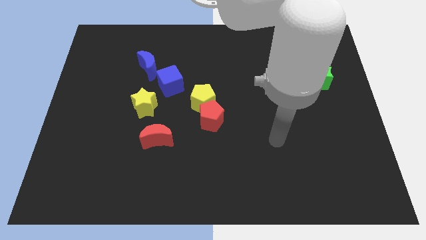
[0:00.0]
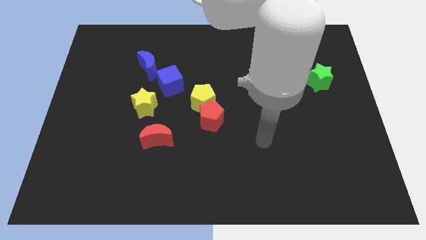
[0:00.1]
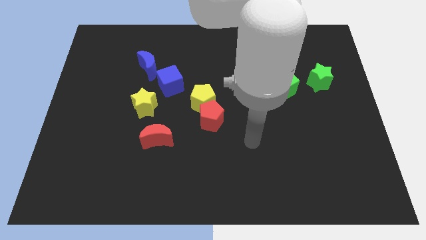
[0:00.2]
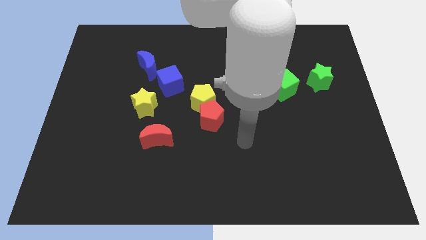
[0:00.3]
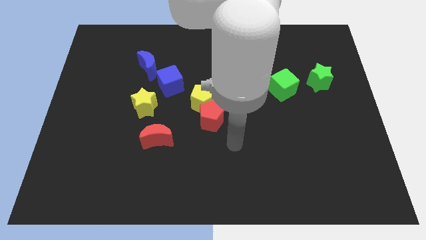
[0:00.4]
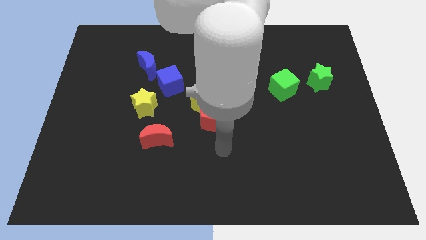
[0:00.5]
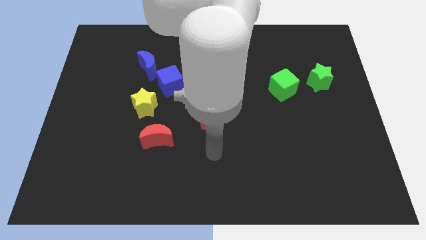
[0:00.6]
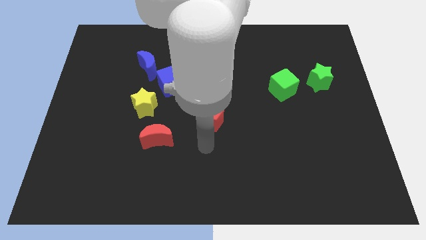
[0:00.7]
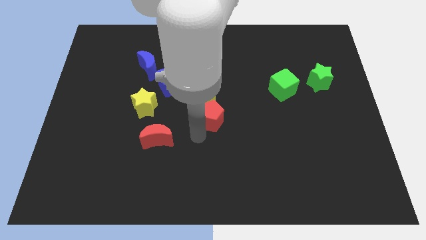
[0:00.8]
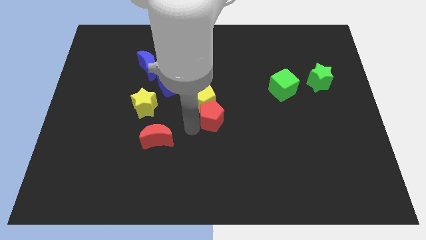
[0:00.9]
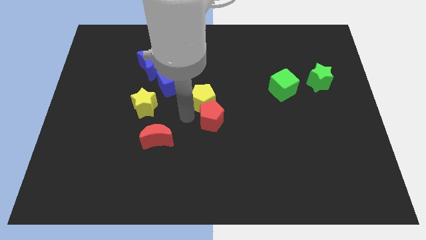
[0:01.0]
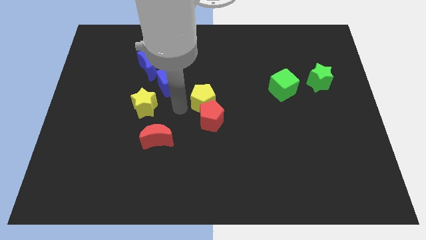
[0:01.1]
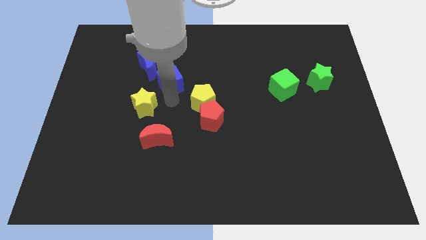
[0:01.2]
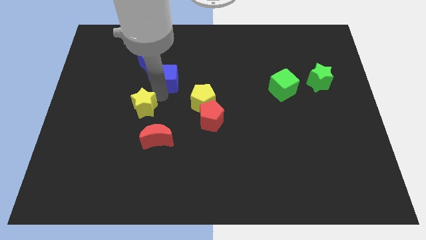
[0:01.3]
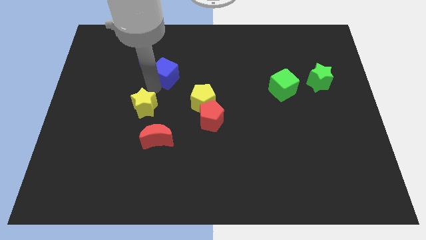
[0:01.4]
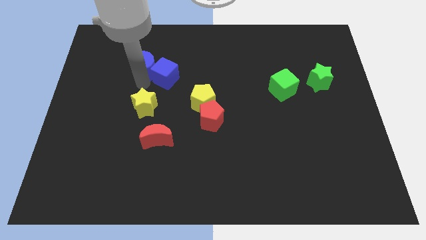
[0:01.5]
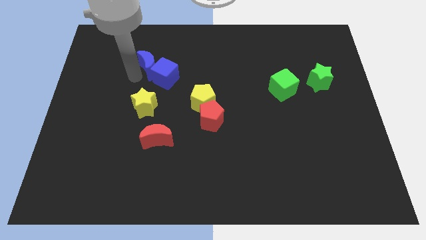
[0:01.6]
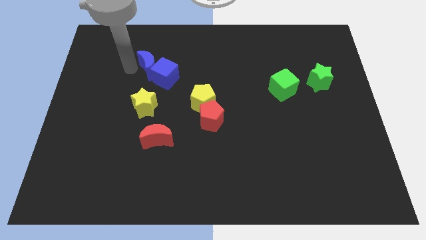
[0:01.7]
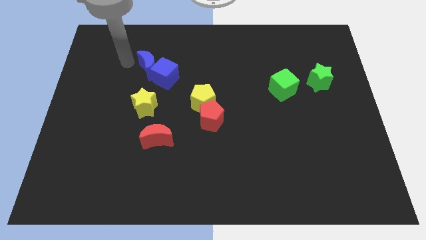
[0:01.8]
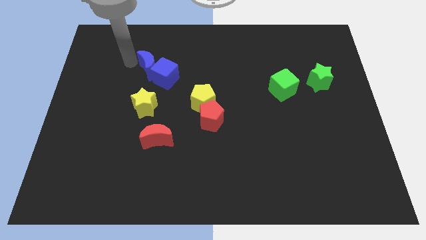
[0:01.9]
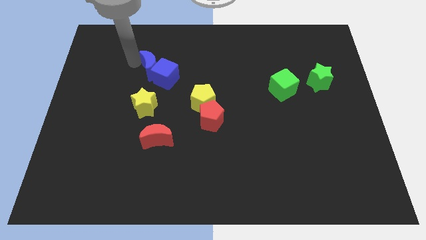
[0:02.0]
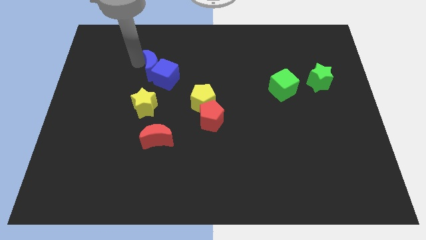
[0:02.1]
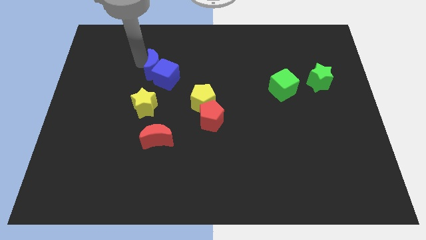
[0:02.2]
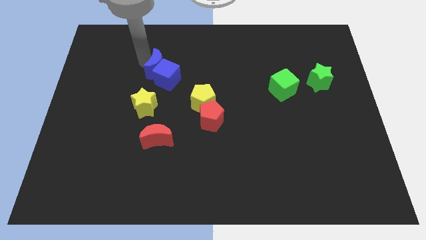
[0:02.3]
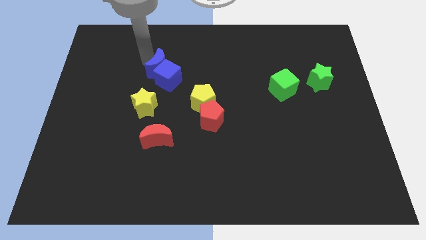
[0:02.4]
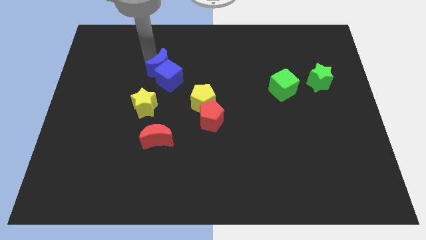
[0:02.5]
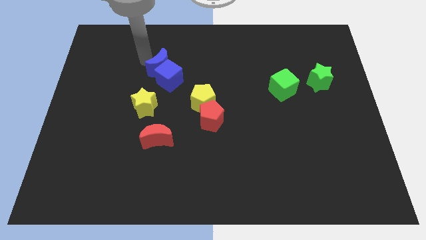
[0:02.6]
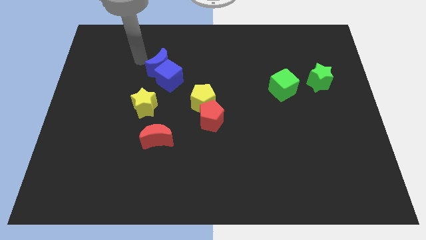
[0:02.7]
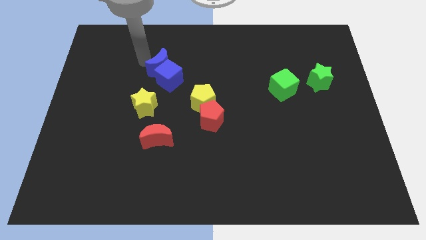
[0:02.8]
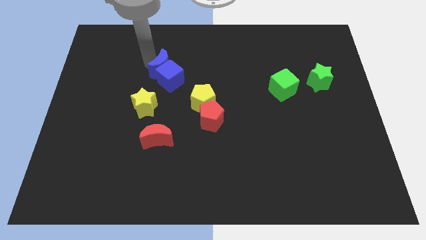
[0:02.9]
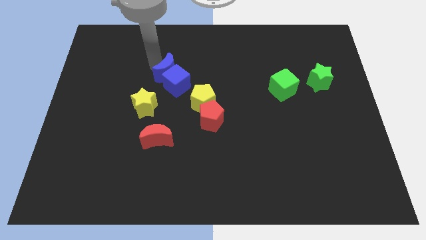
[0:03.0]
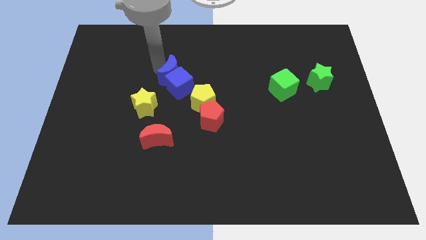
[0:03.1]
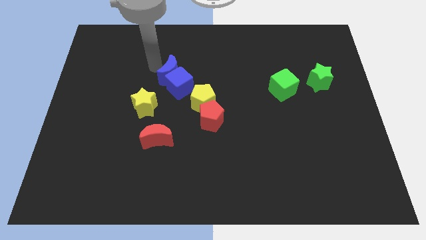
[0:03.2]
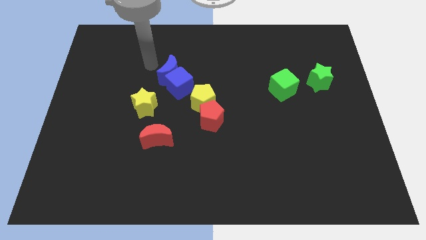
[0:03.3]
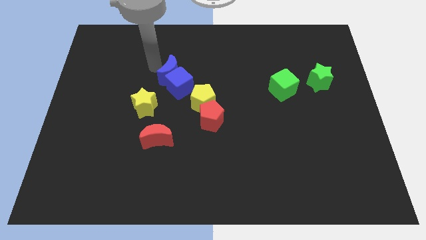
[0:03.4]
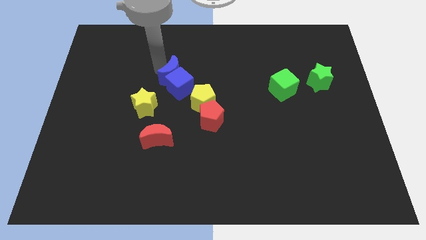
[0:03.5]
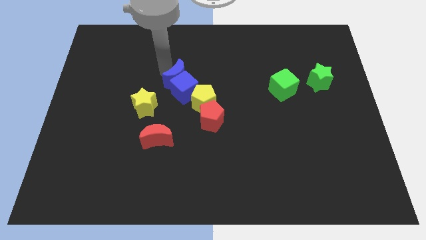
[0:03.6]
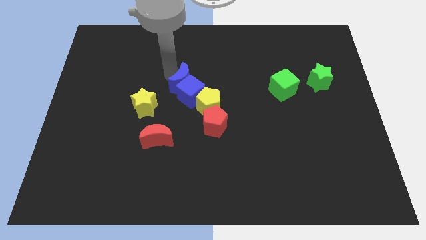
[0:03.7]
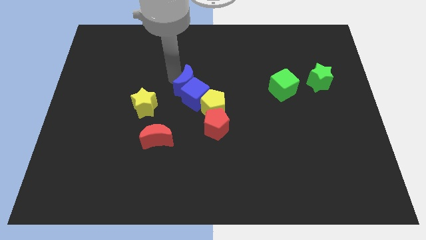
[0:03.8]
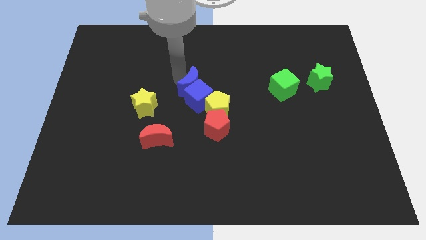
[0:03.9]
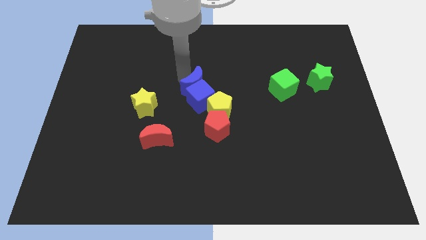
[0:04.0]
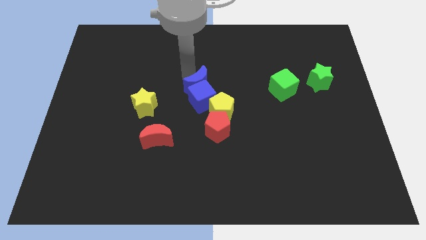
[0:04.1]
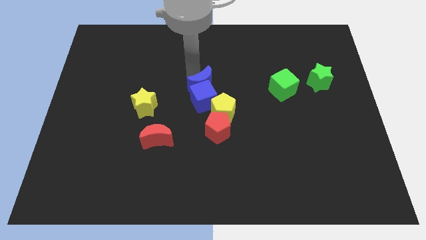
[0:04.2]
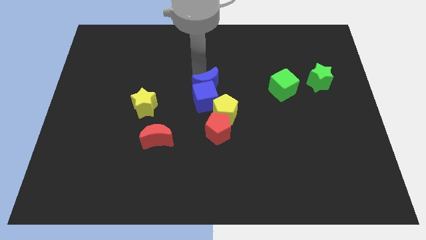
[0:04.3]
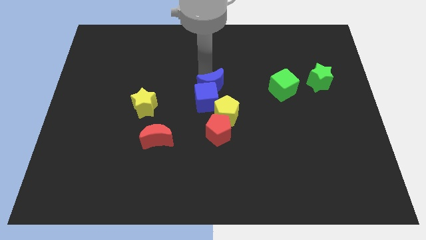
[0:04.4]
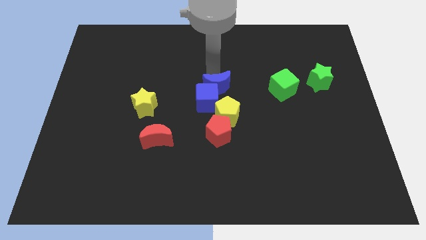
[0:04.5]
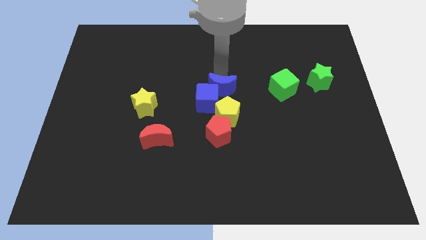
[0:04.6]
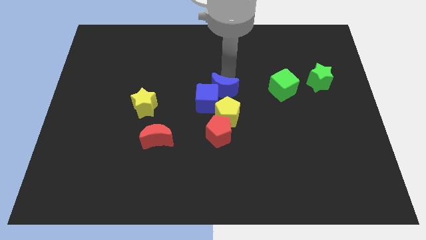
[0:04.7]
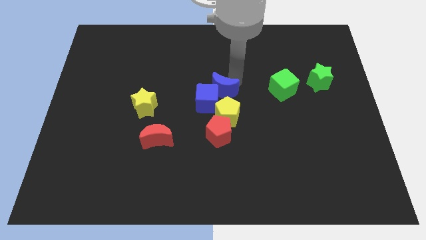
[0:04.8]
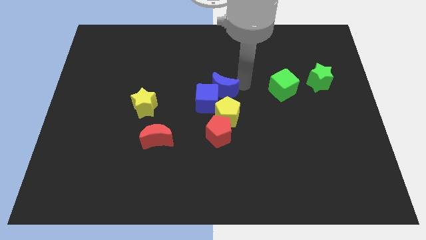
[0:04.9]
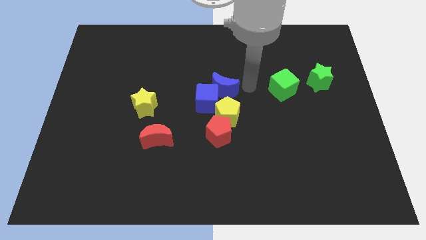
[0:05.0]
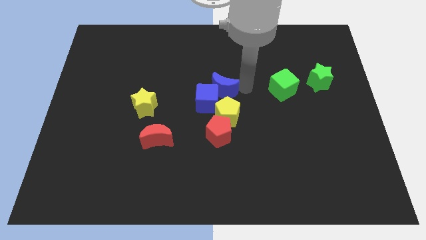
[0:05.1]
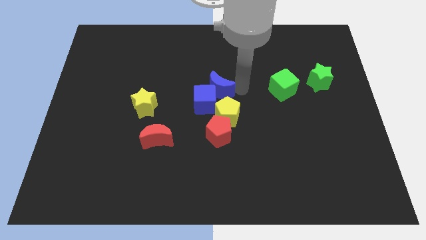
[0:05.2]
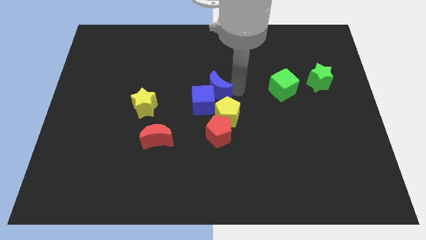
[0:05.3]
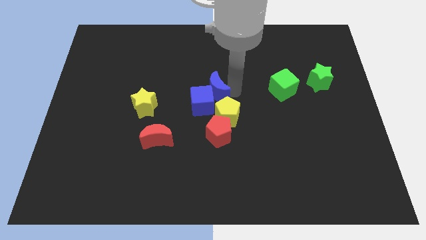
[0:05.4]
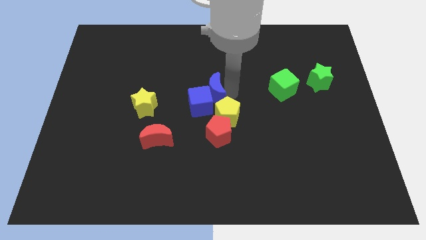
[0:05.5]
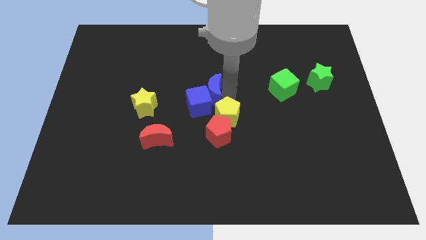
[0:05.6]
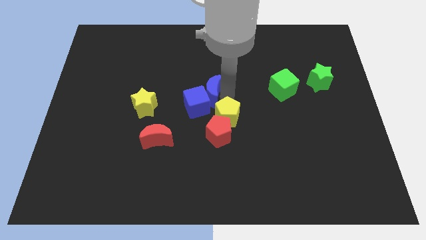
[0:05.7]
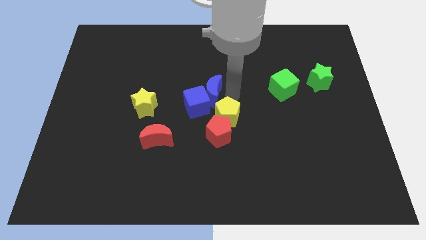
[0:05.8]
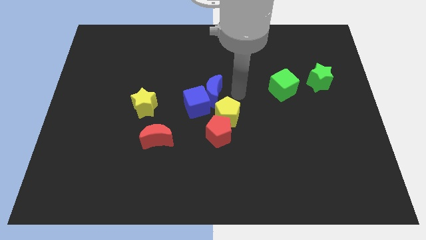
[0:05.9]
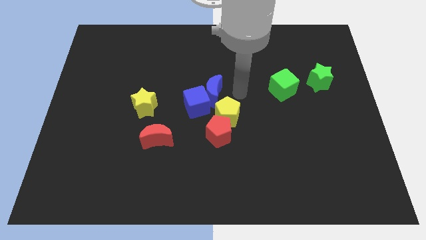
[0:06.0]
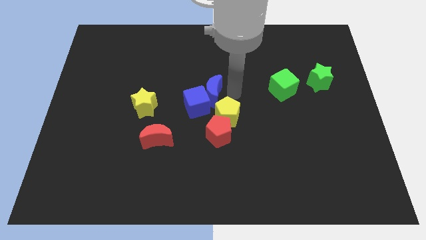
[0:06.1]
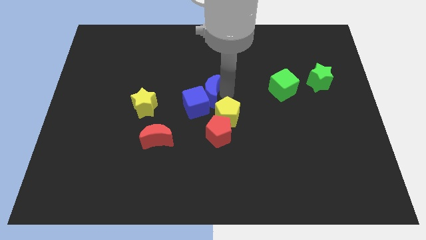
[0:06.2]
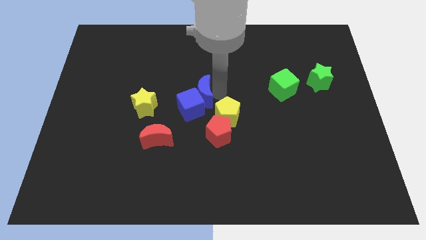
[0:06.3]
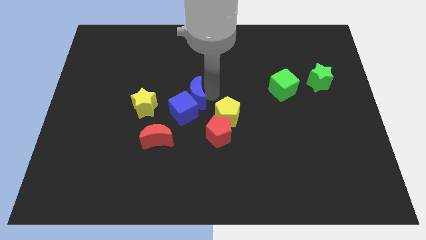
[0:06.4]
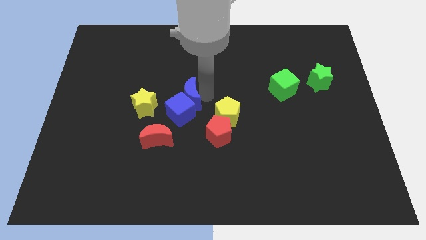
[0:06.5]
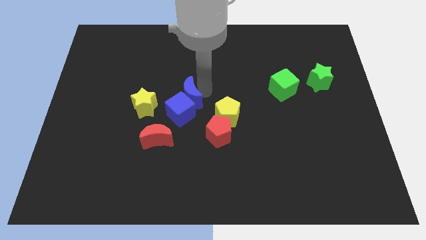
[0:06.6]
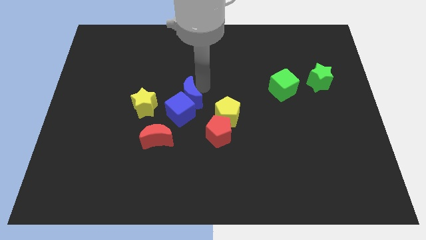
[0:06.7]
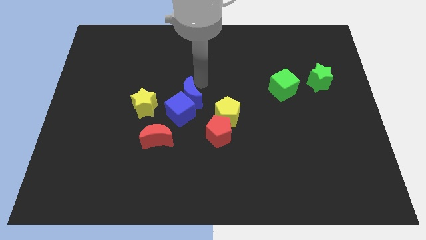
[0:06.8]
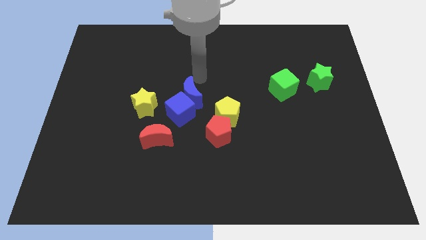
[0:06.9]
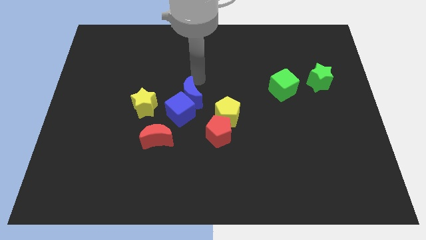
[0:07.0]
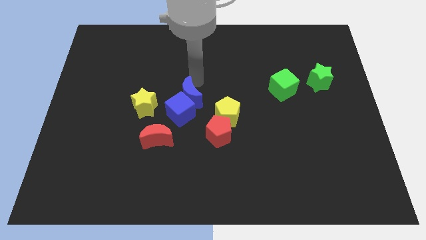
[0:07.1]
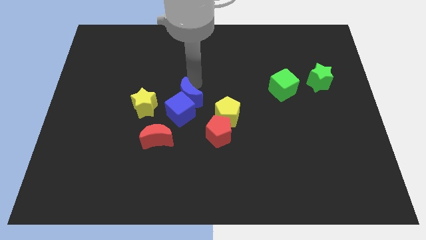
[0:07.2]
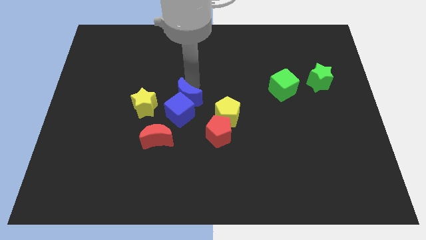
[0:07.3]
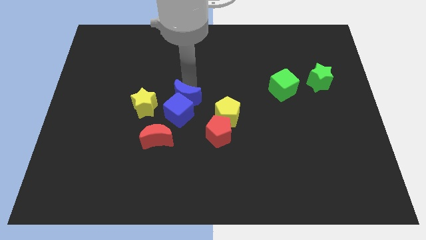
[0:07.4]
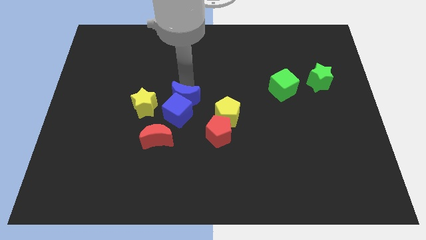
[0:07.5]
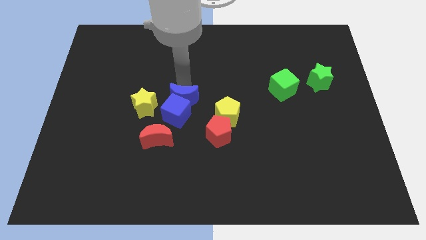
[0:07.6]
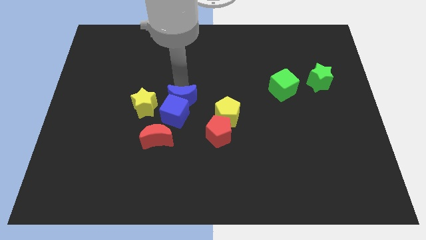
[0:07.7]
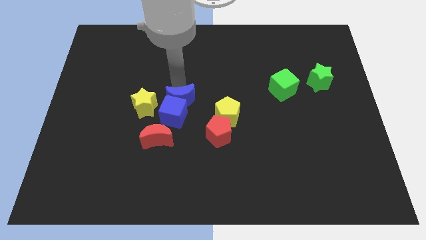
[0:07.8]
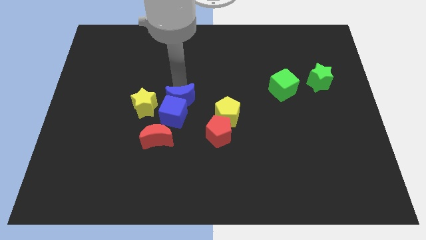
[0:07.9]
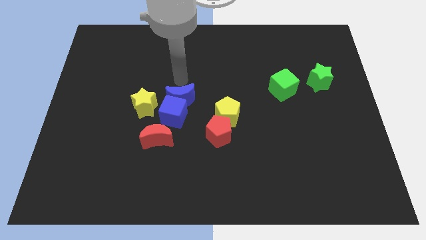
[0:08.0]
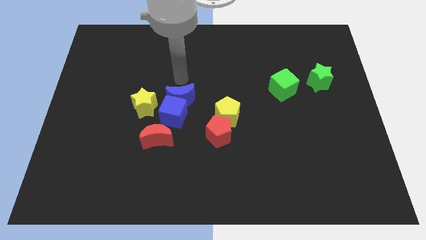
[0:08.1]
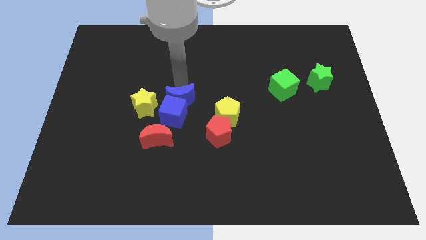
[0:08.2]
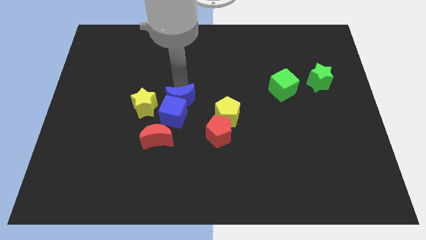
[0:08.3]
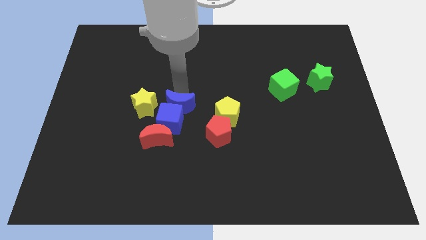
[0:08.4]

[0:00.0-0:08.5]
slide the blue moon to the top right side of the red moon
